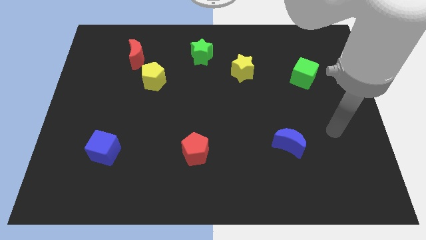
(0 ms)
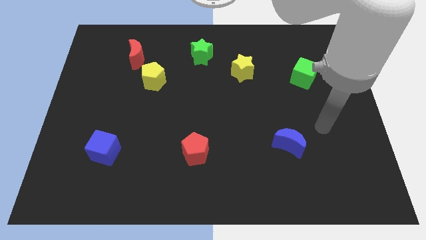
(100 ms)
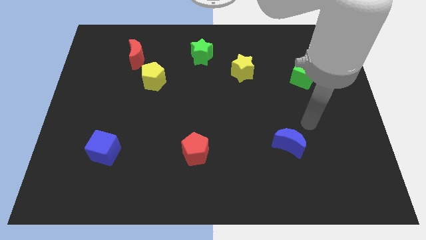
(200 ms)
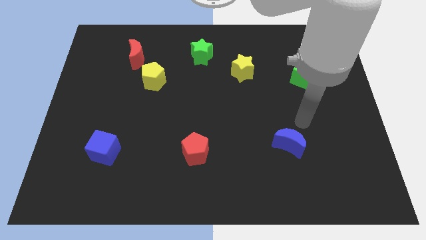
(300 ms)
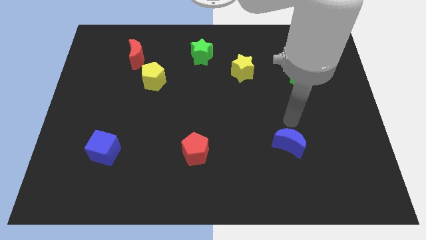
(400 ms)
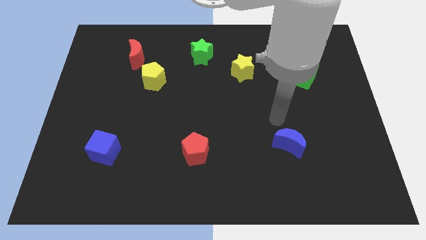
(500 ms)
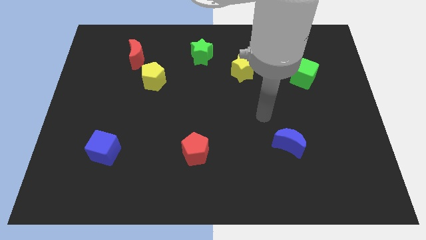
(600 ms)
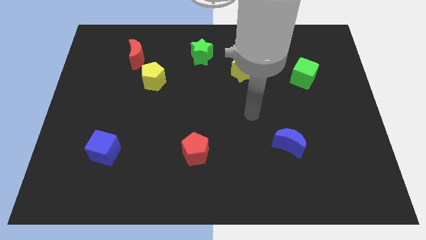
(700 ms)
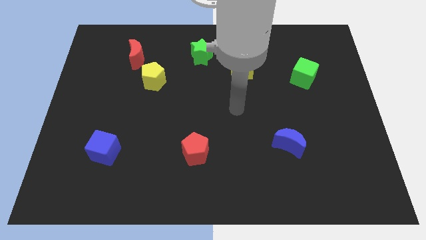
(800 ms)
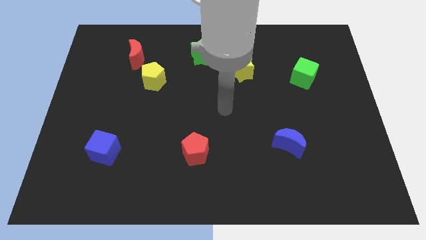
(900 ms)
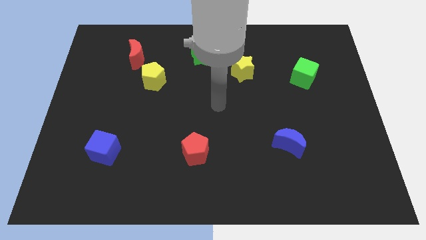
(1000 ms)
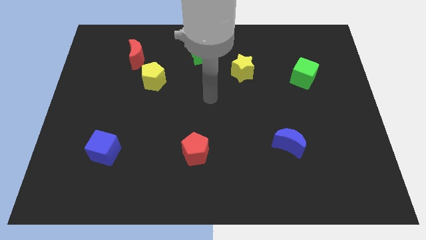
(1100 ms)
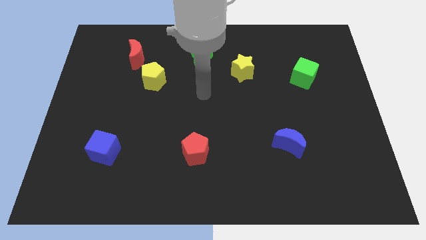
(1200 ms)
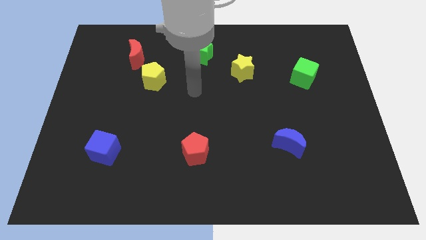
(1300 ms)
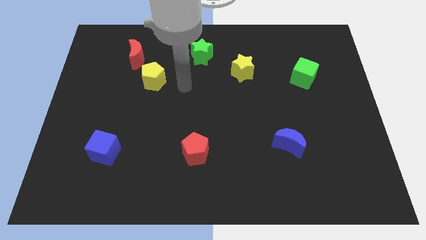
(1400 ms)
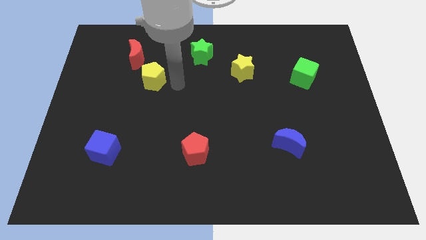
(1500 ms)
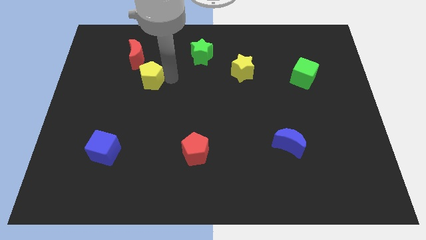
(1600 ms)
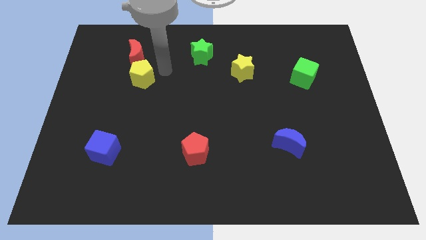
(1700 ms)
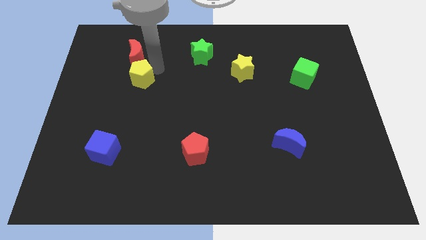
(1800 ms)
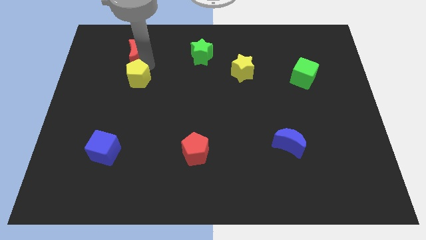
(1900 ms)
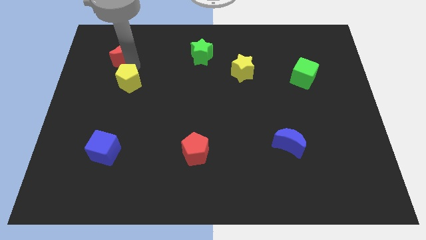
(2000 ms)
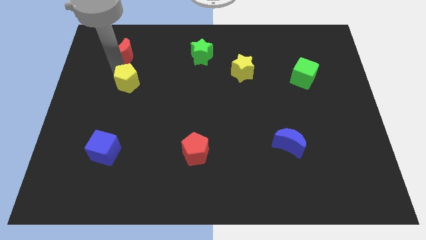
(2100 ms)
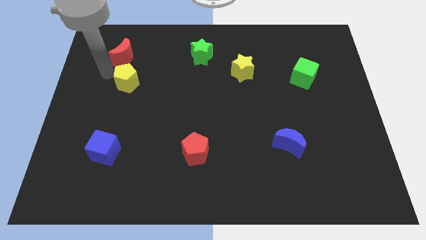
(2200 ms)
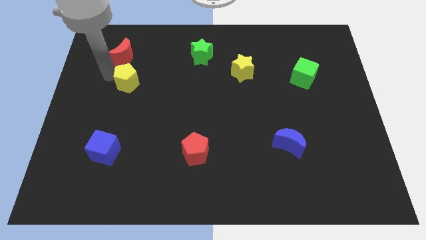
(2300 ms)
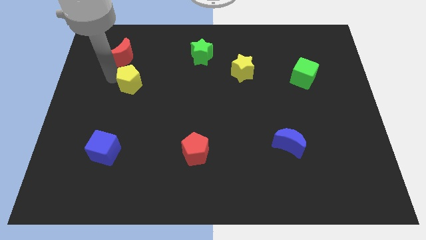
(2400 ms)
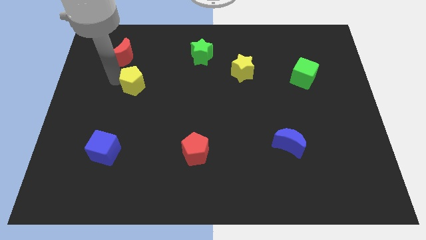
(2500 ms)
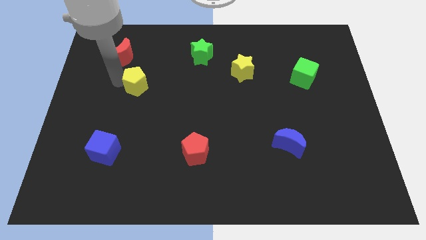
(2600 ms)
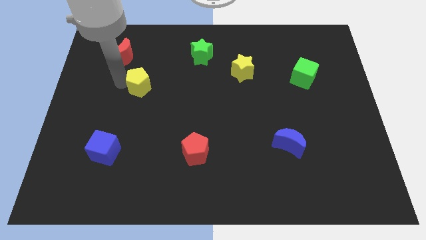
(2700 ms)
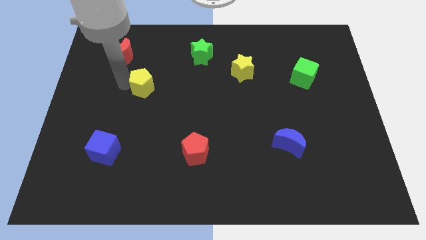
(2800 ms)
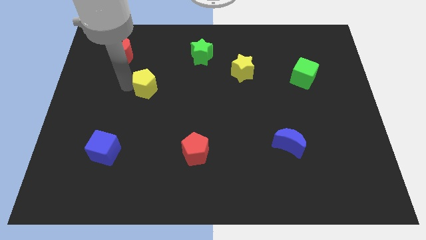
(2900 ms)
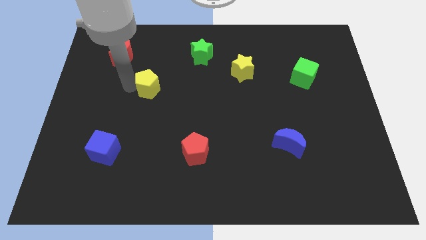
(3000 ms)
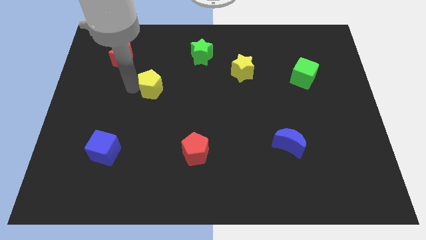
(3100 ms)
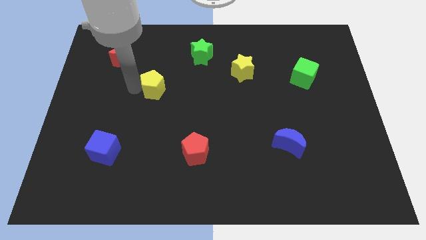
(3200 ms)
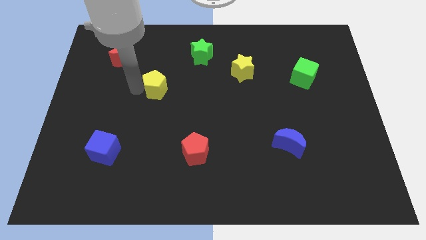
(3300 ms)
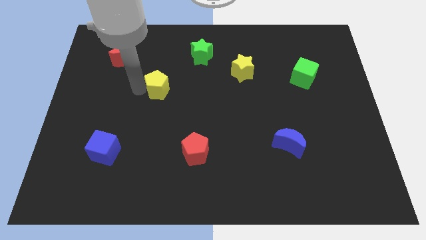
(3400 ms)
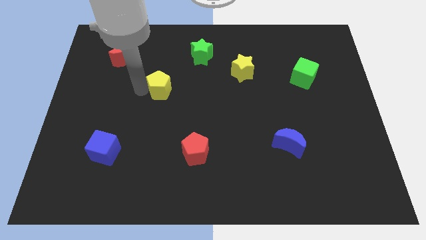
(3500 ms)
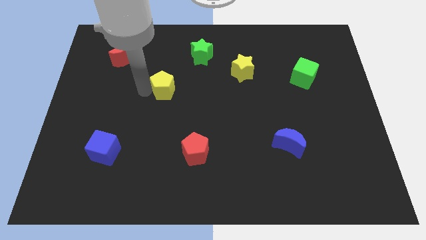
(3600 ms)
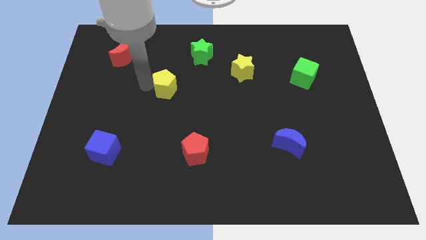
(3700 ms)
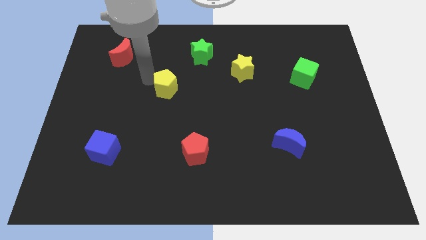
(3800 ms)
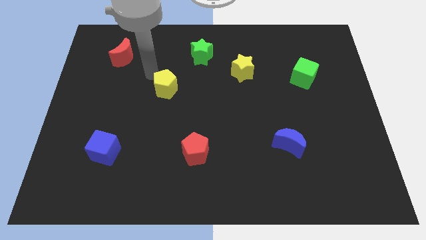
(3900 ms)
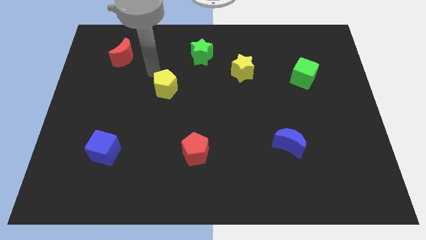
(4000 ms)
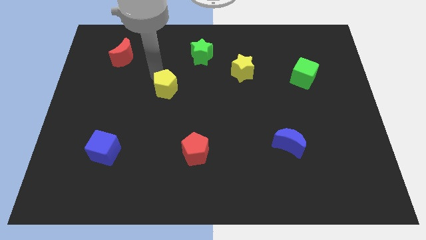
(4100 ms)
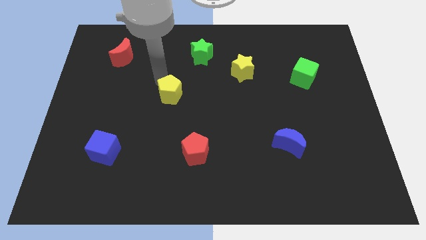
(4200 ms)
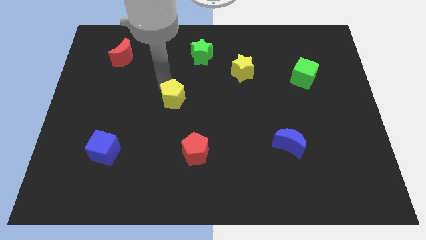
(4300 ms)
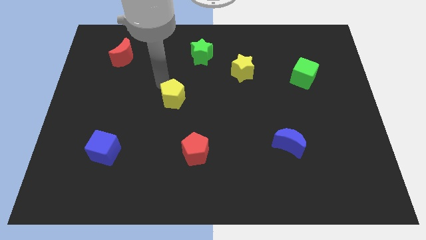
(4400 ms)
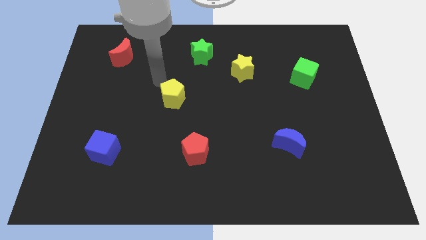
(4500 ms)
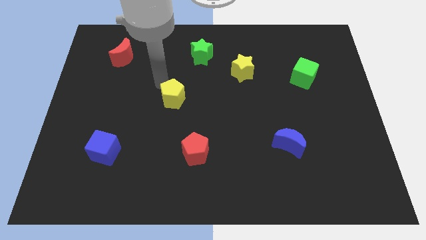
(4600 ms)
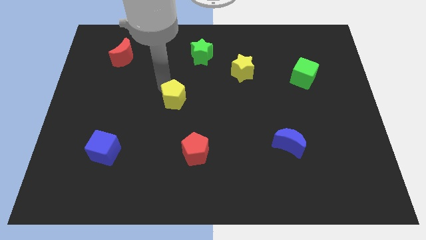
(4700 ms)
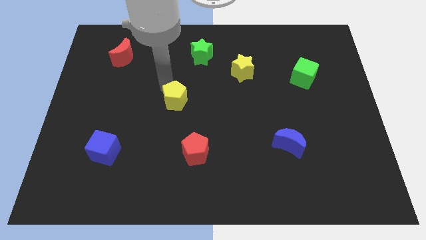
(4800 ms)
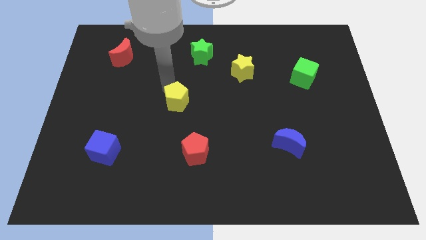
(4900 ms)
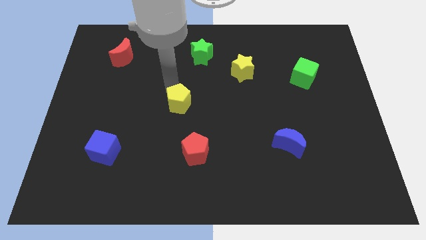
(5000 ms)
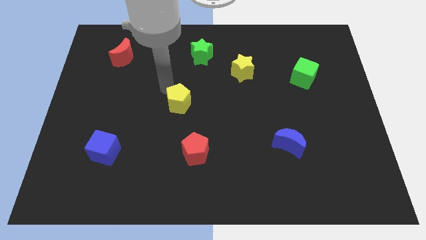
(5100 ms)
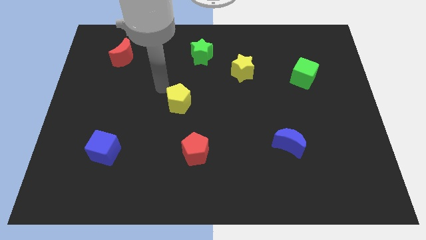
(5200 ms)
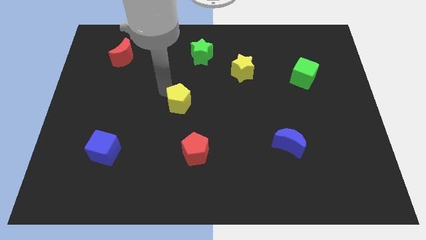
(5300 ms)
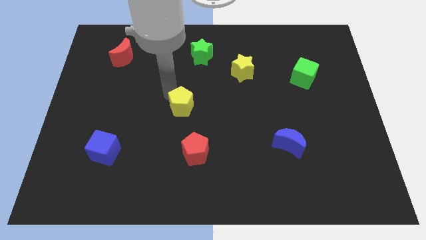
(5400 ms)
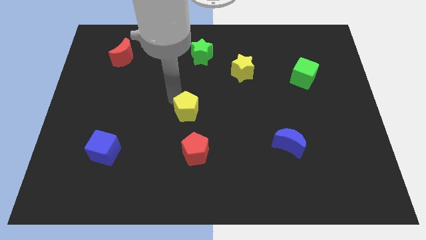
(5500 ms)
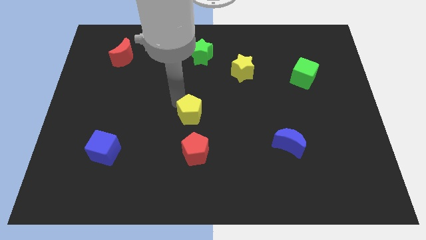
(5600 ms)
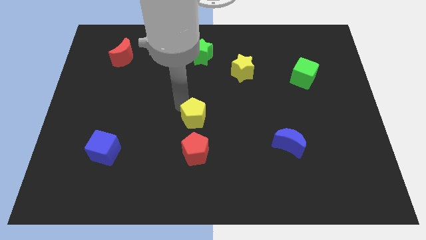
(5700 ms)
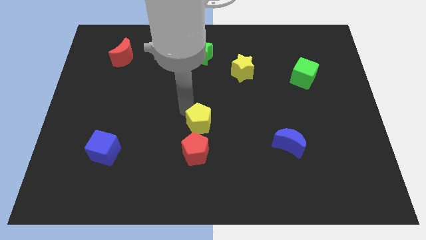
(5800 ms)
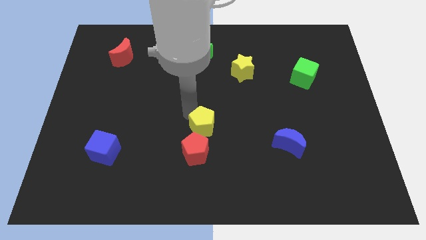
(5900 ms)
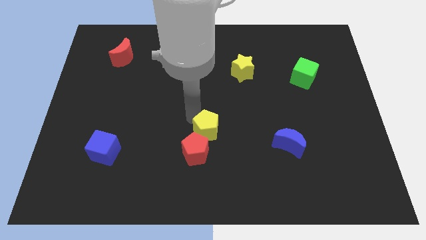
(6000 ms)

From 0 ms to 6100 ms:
move the yellow pentagon downwards and right

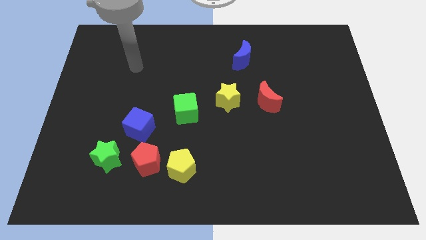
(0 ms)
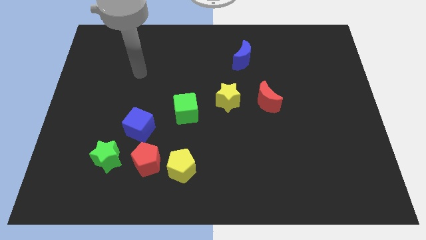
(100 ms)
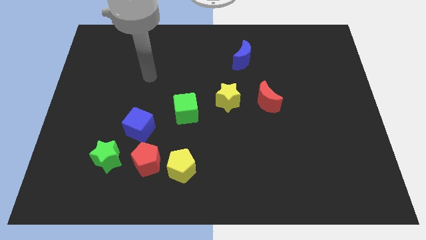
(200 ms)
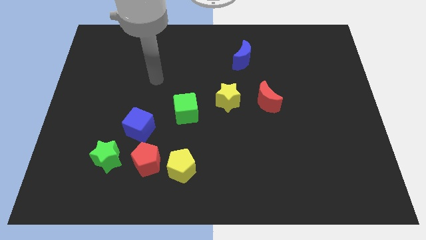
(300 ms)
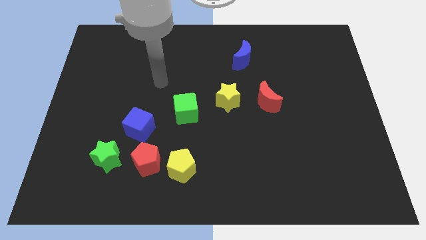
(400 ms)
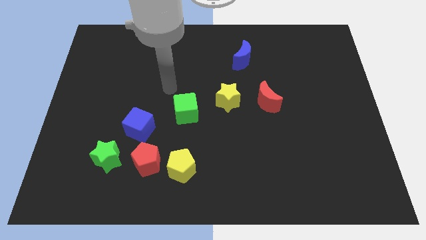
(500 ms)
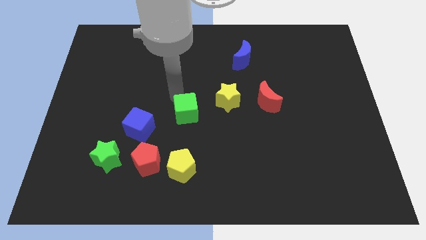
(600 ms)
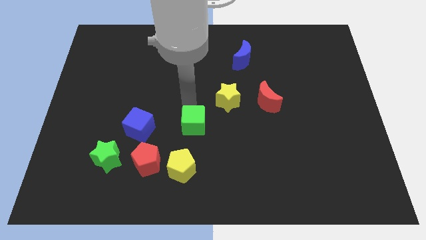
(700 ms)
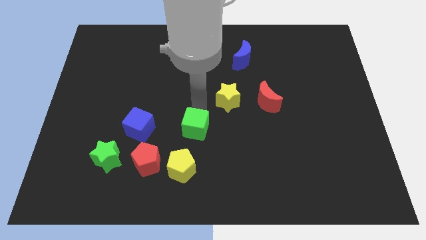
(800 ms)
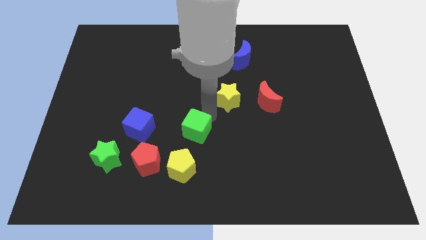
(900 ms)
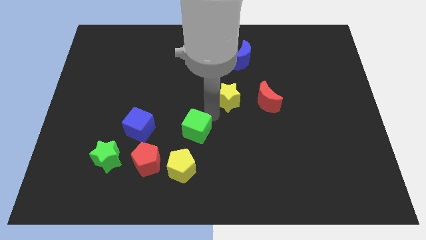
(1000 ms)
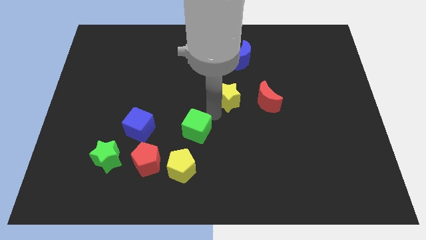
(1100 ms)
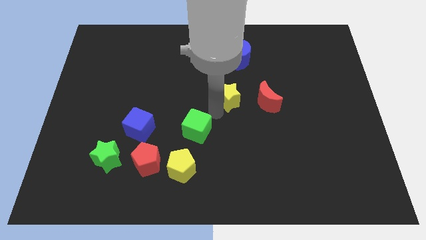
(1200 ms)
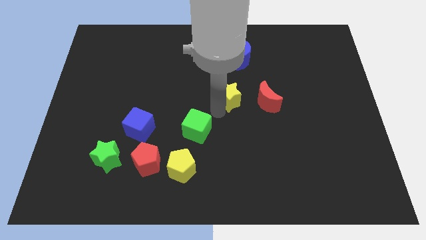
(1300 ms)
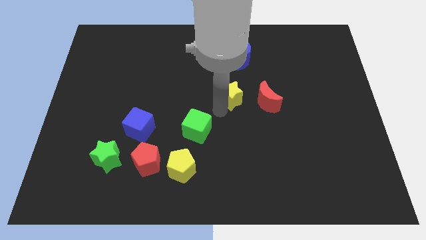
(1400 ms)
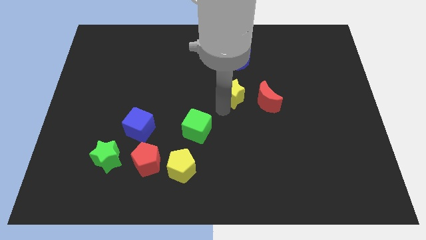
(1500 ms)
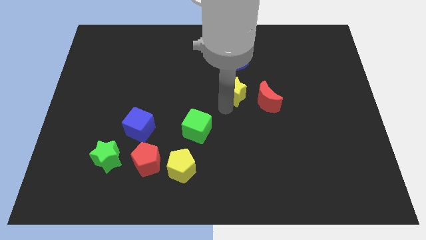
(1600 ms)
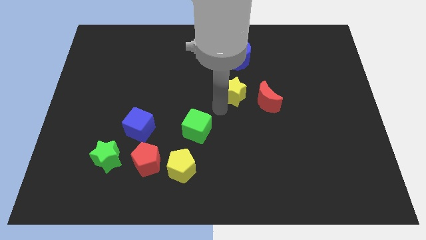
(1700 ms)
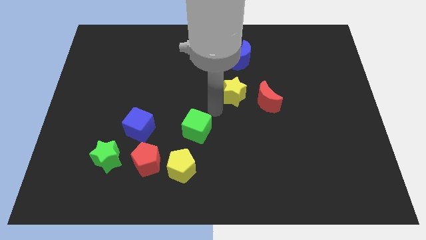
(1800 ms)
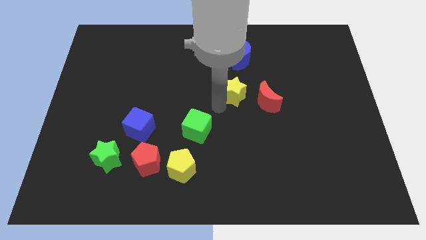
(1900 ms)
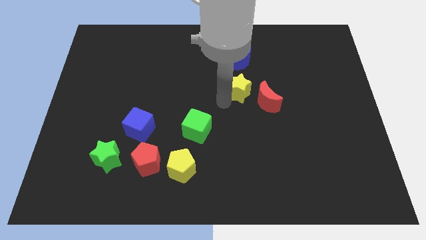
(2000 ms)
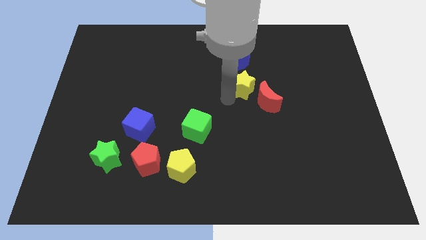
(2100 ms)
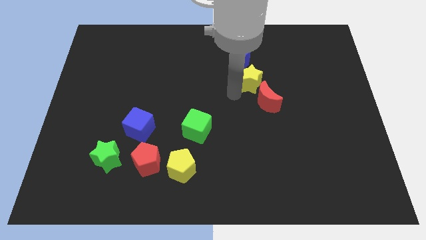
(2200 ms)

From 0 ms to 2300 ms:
move the yellow star a bit up and right
